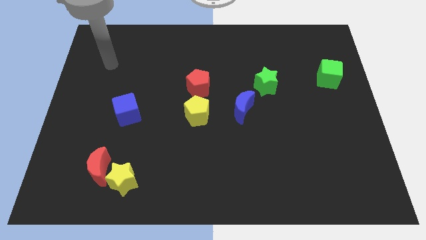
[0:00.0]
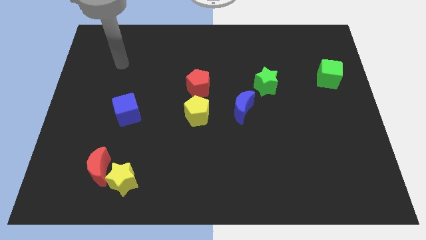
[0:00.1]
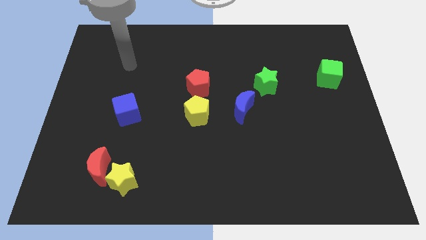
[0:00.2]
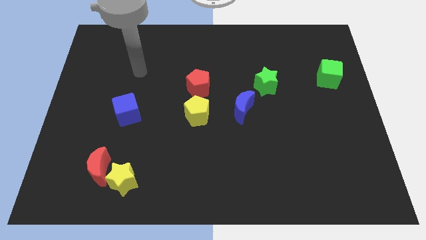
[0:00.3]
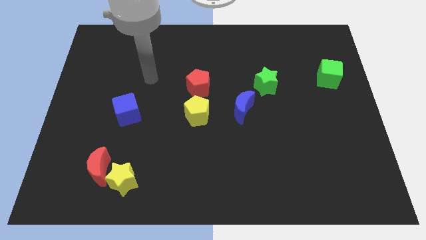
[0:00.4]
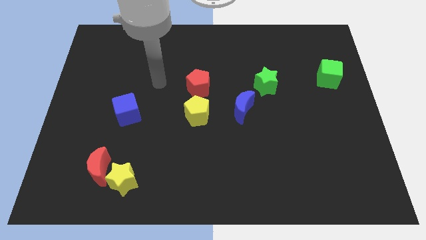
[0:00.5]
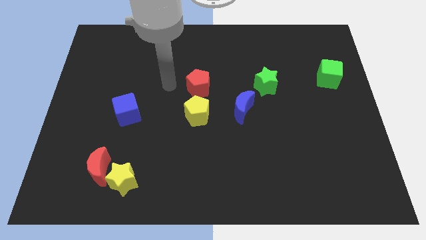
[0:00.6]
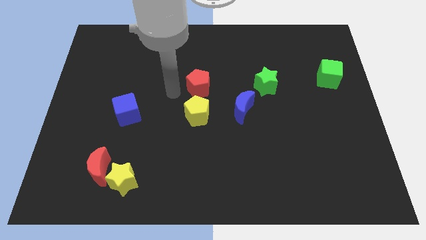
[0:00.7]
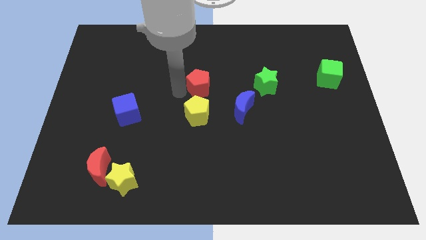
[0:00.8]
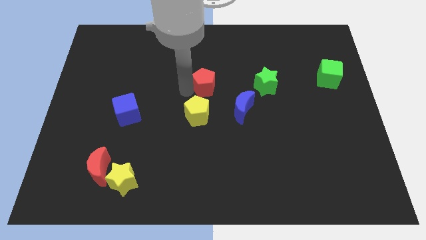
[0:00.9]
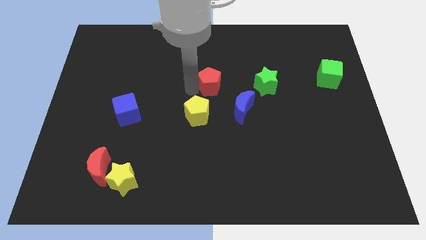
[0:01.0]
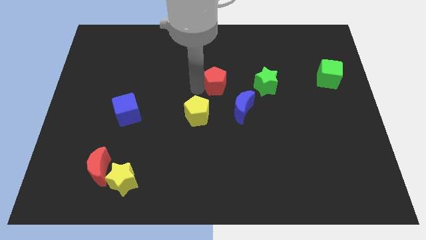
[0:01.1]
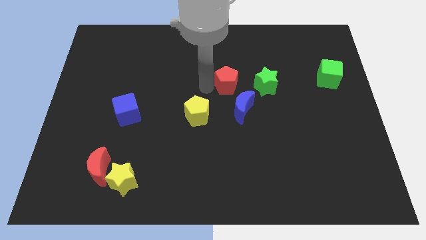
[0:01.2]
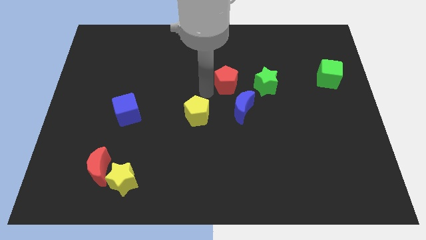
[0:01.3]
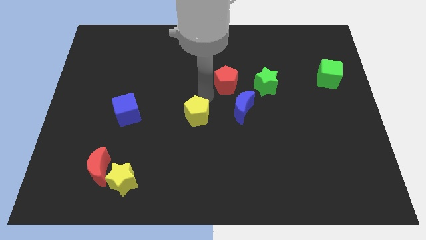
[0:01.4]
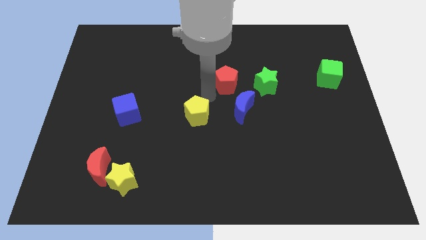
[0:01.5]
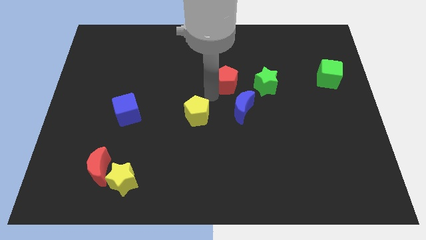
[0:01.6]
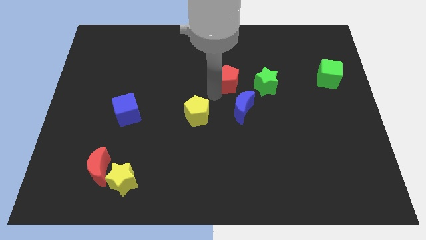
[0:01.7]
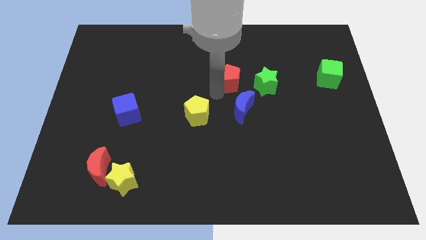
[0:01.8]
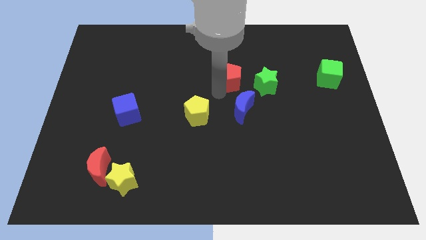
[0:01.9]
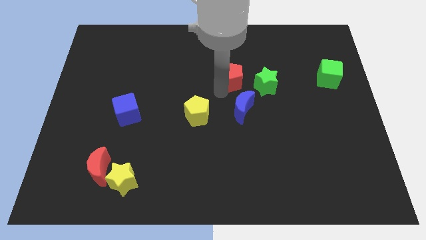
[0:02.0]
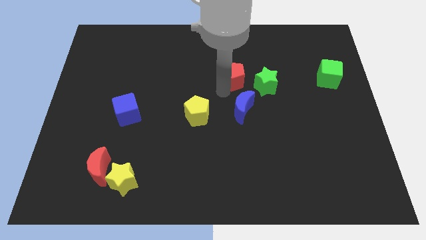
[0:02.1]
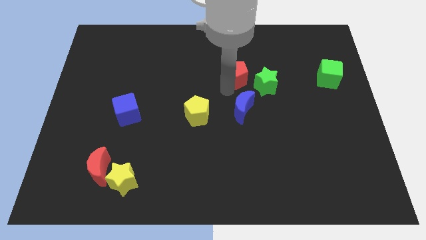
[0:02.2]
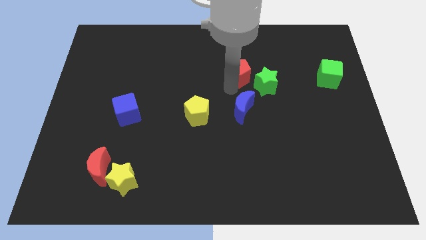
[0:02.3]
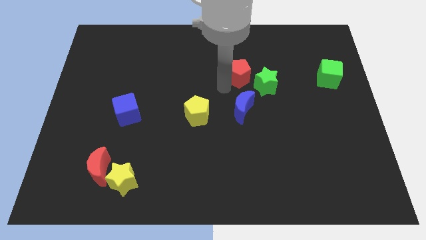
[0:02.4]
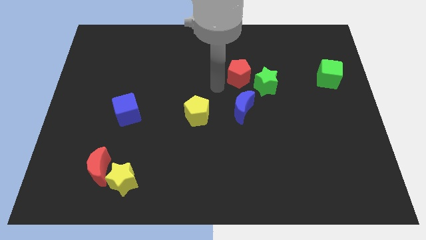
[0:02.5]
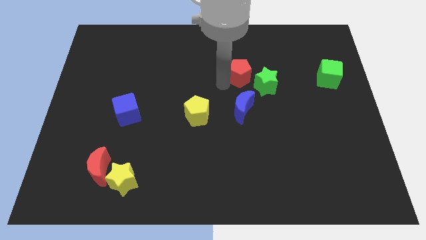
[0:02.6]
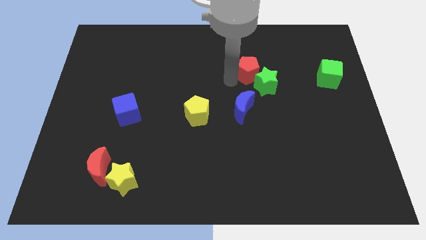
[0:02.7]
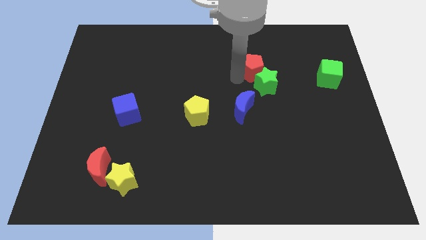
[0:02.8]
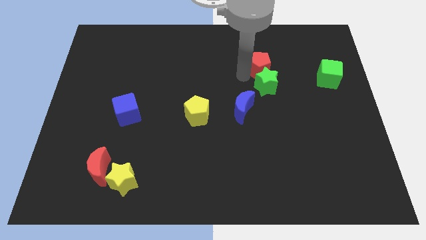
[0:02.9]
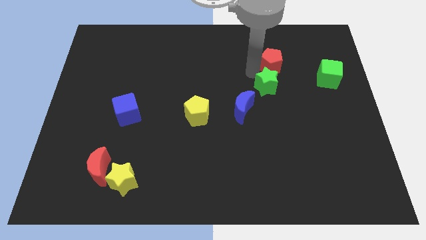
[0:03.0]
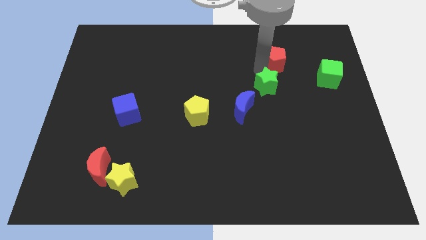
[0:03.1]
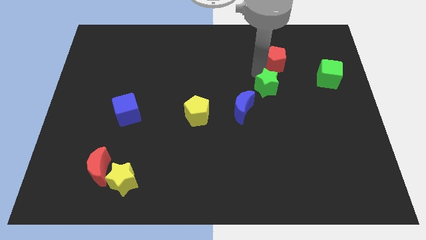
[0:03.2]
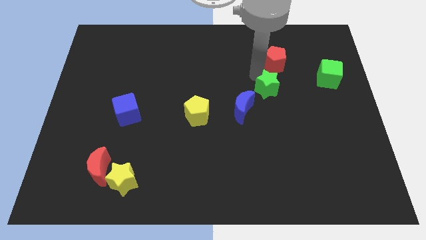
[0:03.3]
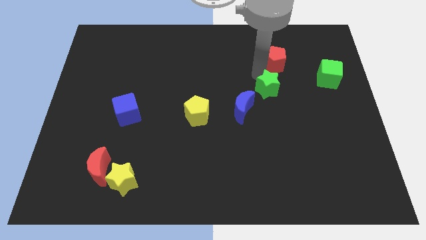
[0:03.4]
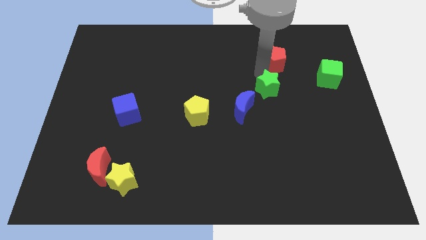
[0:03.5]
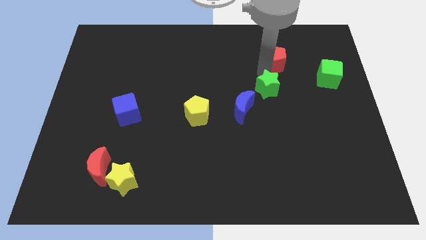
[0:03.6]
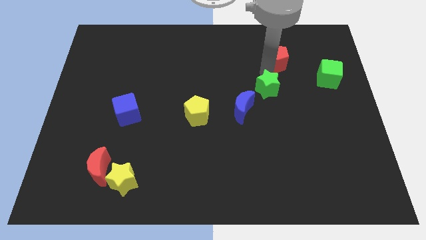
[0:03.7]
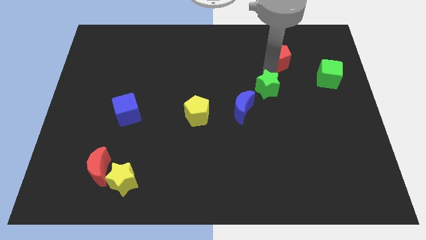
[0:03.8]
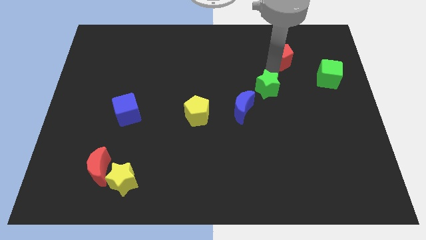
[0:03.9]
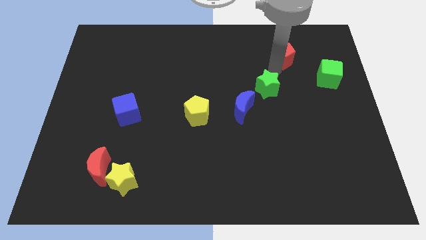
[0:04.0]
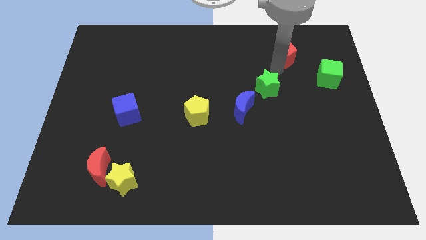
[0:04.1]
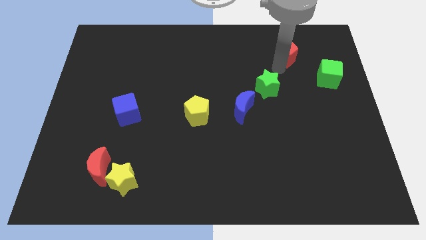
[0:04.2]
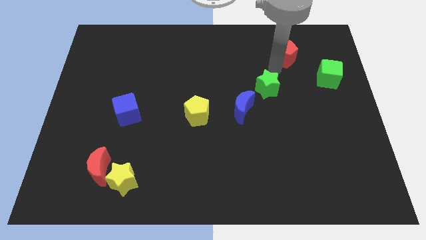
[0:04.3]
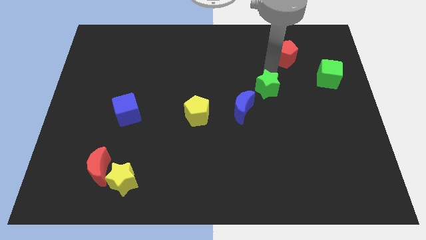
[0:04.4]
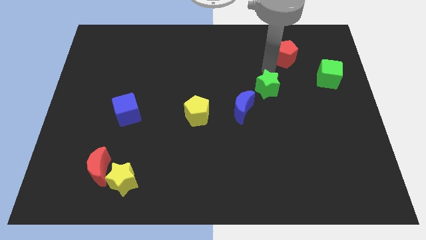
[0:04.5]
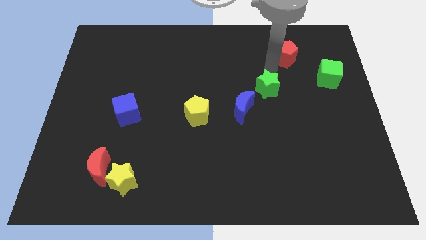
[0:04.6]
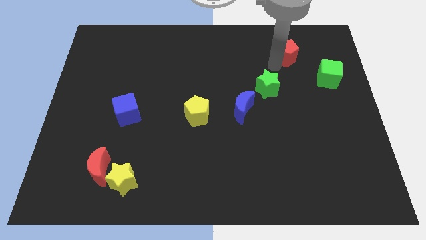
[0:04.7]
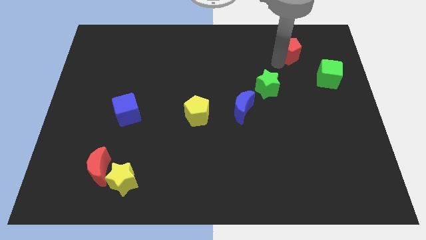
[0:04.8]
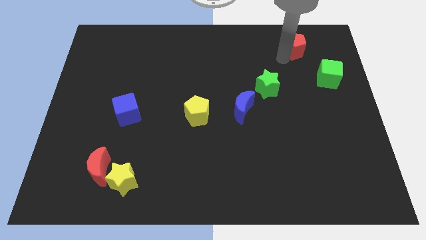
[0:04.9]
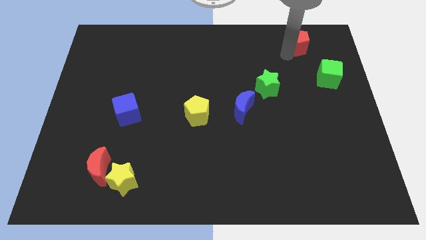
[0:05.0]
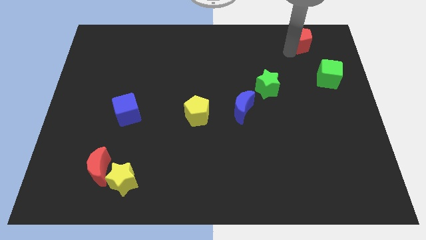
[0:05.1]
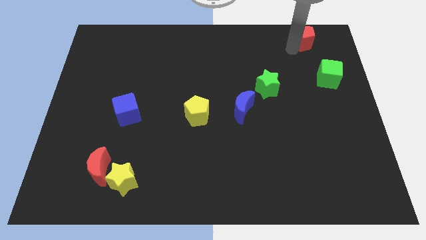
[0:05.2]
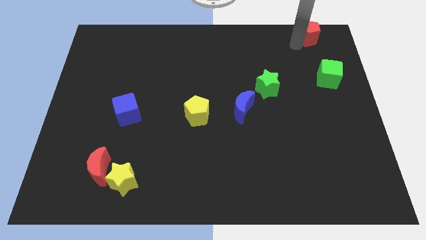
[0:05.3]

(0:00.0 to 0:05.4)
move the red pentagon to the upper right corner

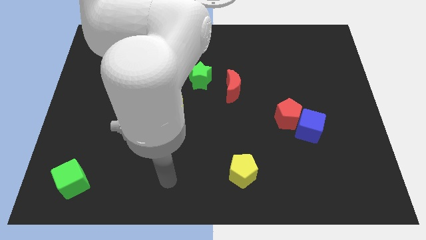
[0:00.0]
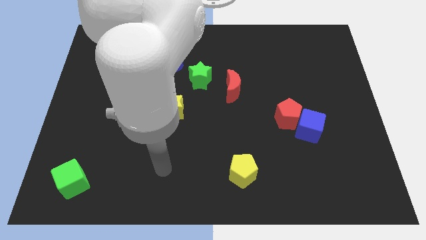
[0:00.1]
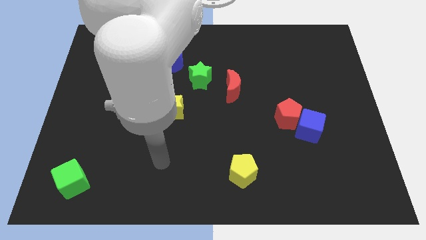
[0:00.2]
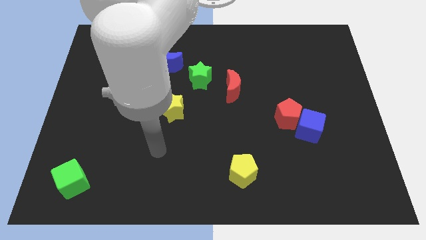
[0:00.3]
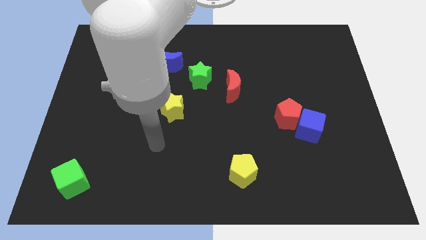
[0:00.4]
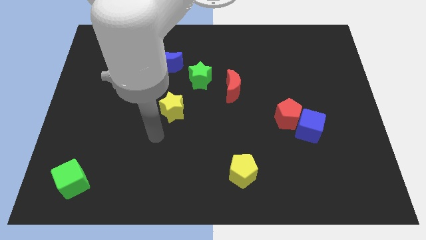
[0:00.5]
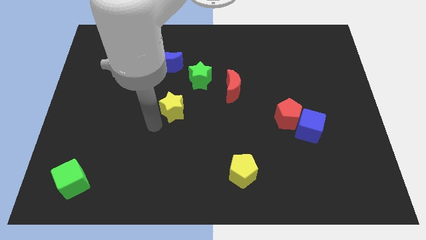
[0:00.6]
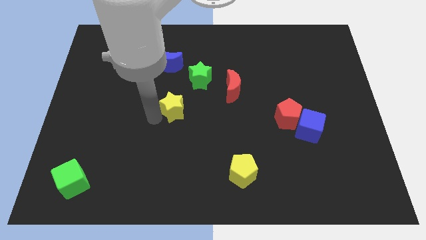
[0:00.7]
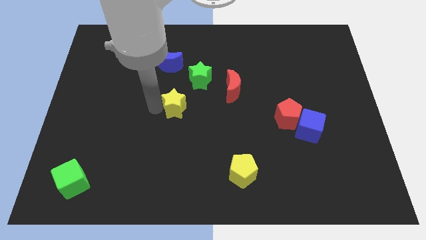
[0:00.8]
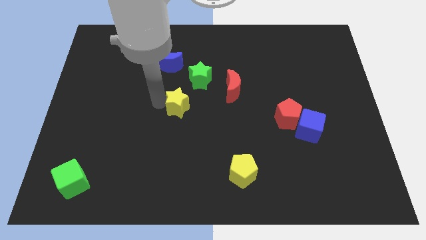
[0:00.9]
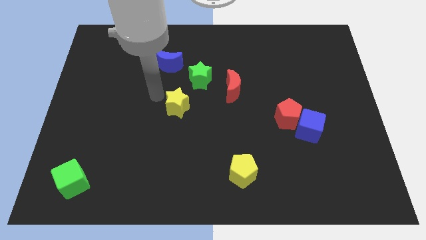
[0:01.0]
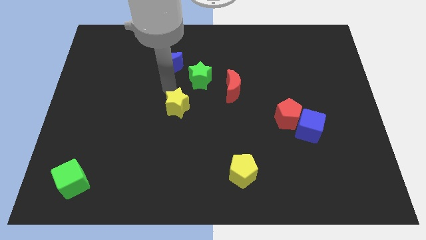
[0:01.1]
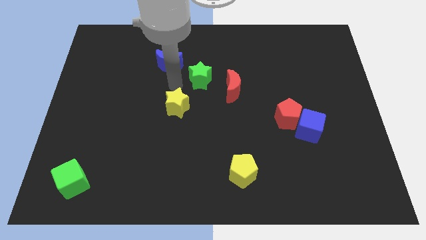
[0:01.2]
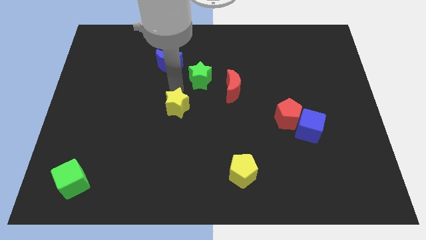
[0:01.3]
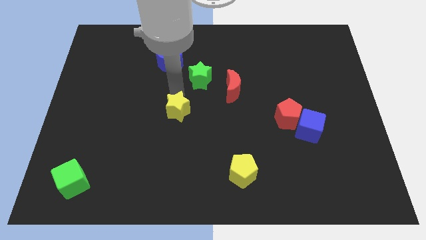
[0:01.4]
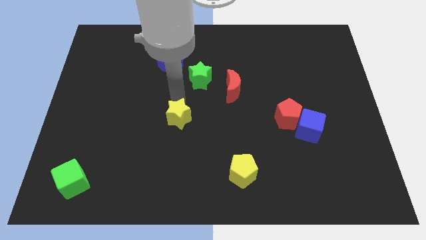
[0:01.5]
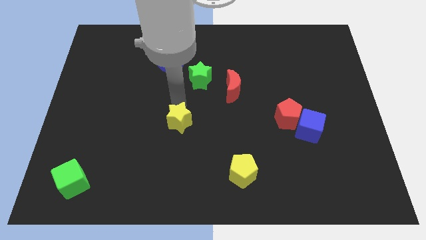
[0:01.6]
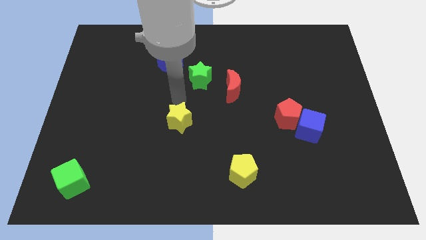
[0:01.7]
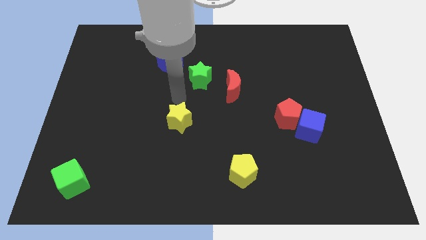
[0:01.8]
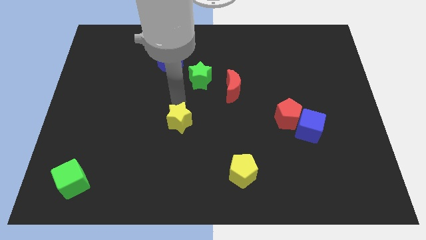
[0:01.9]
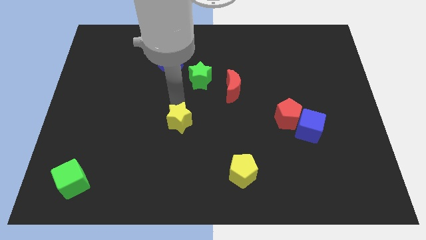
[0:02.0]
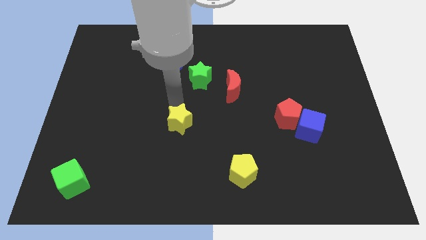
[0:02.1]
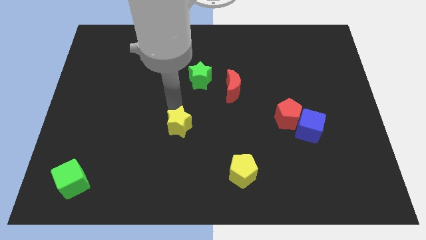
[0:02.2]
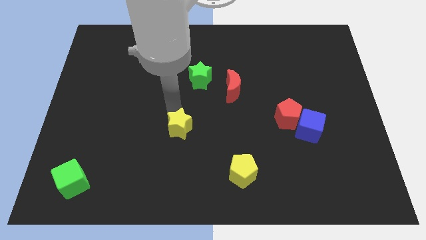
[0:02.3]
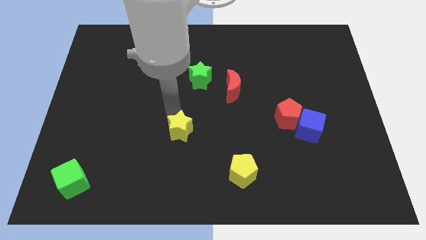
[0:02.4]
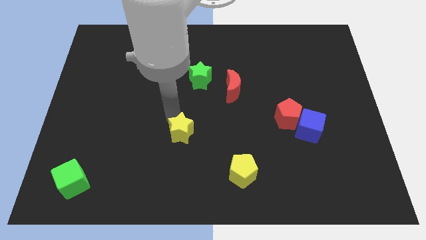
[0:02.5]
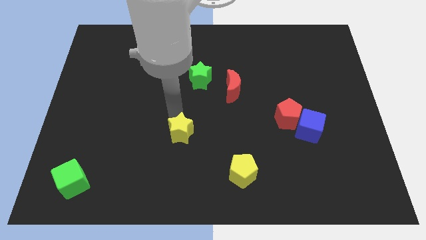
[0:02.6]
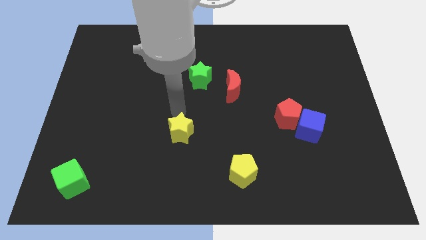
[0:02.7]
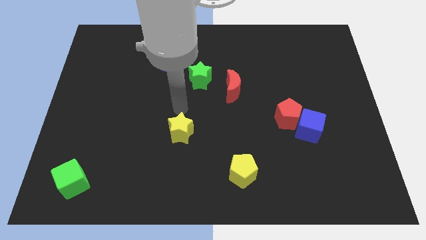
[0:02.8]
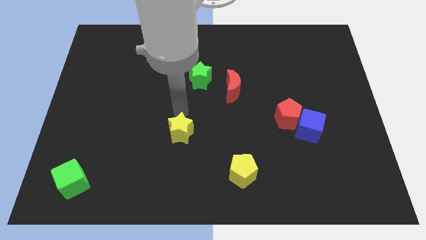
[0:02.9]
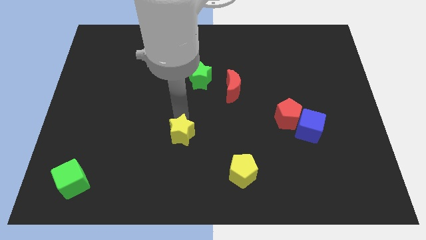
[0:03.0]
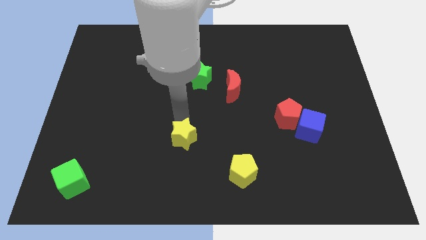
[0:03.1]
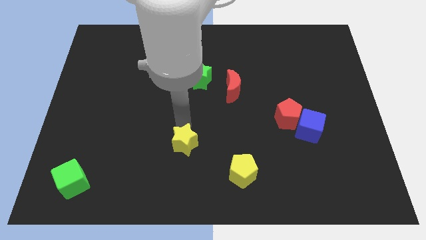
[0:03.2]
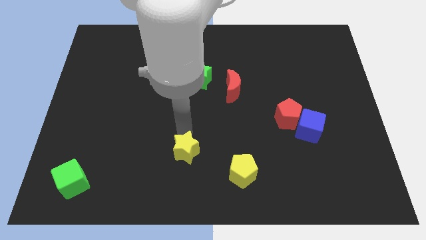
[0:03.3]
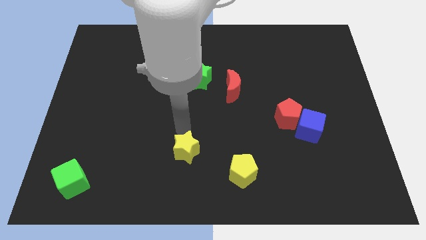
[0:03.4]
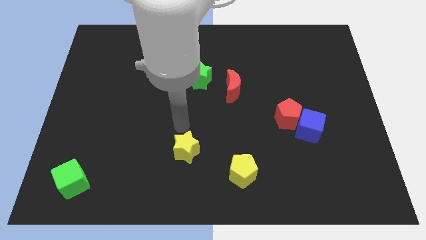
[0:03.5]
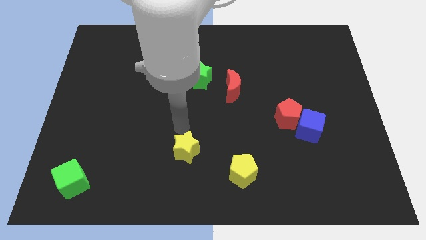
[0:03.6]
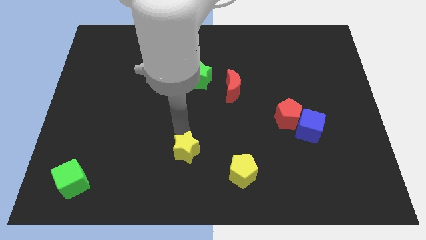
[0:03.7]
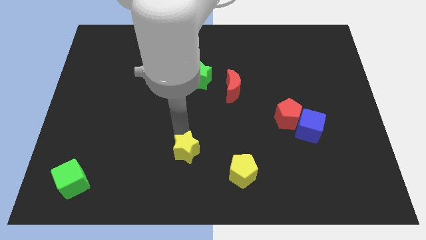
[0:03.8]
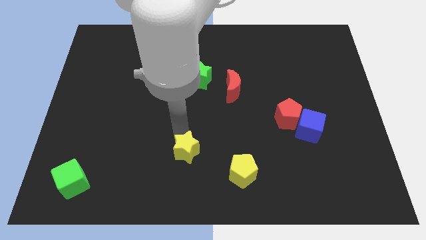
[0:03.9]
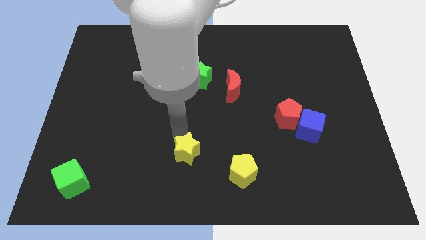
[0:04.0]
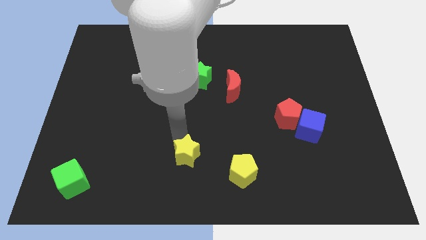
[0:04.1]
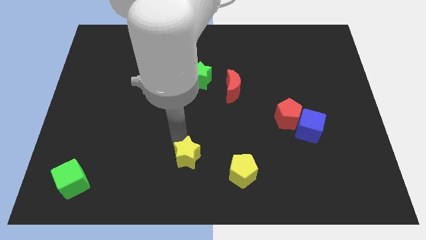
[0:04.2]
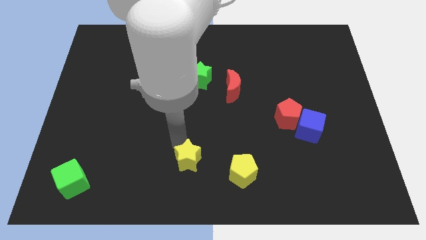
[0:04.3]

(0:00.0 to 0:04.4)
move the yellow star to the bottom
